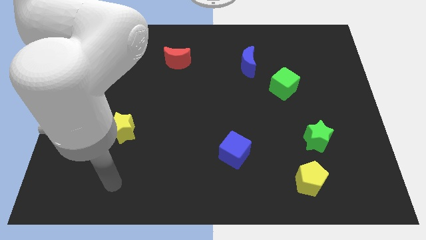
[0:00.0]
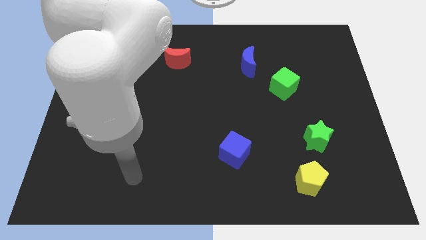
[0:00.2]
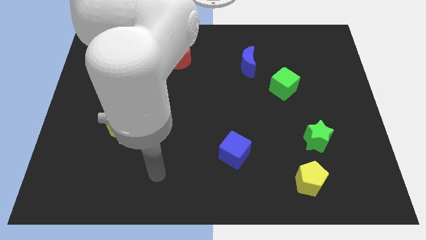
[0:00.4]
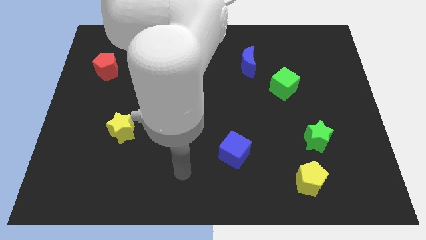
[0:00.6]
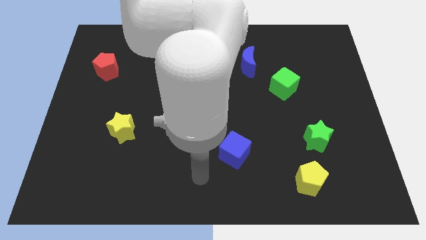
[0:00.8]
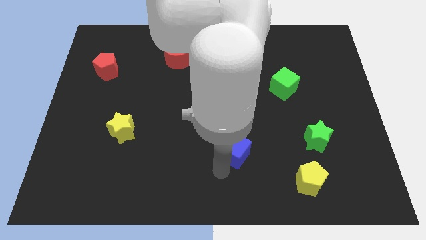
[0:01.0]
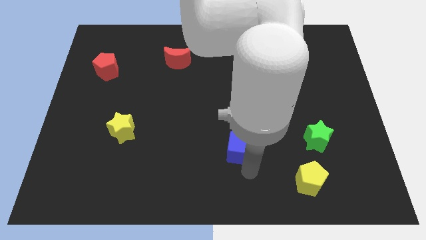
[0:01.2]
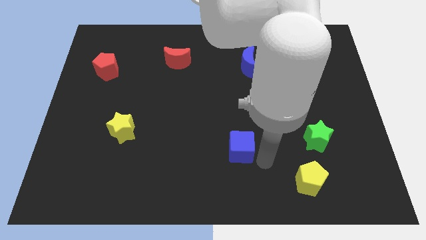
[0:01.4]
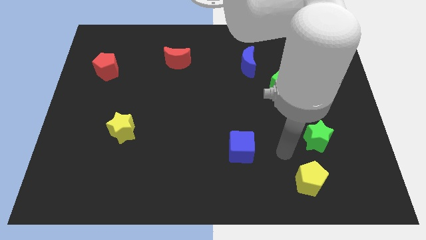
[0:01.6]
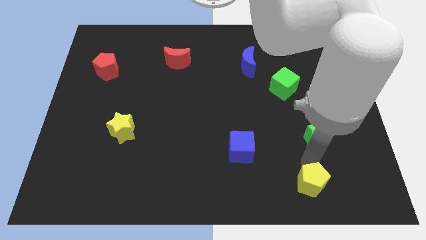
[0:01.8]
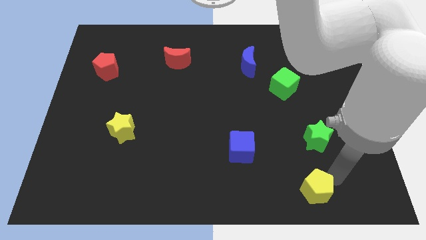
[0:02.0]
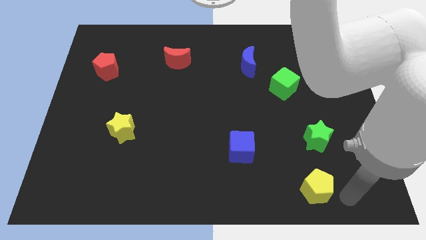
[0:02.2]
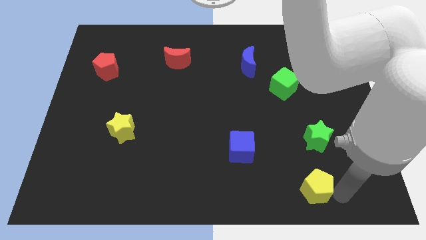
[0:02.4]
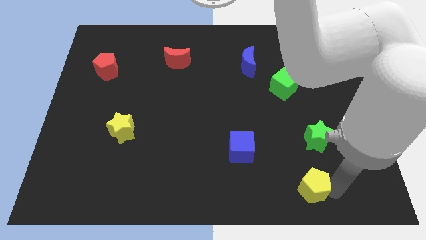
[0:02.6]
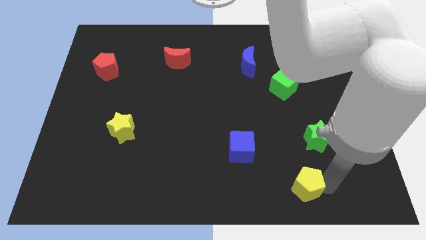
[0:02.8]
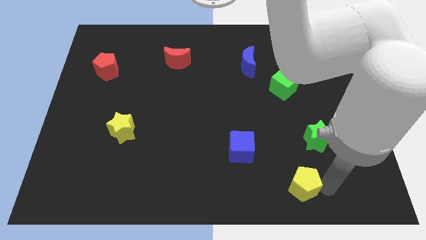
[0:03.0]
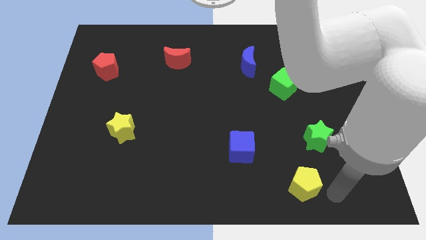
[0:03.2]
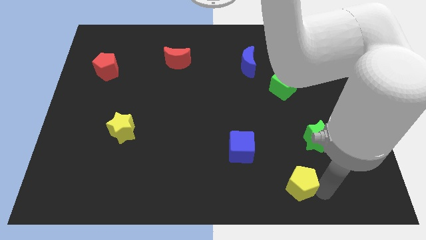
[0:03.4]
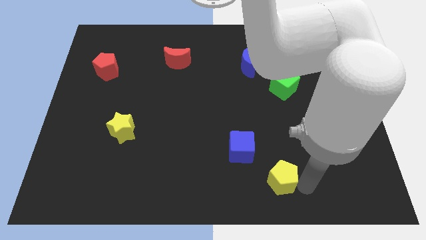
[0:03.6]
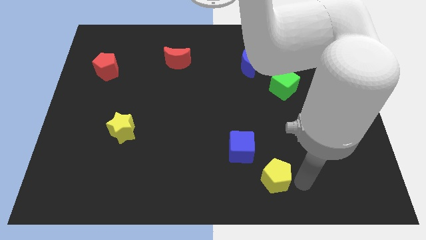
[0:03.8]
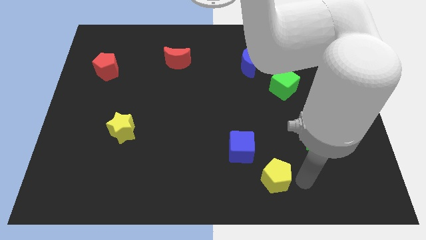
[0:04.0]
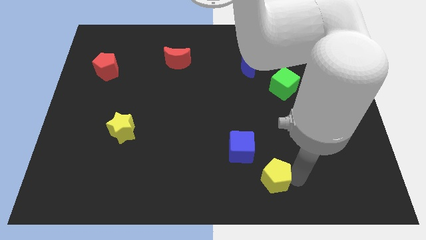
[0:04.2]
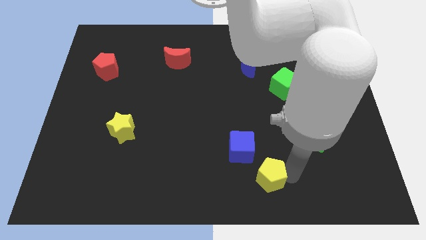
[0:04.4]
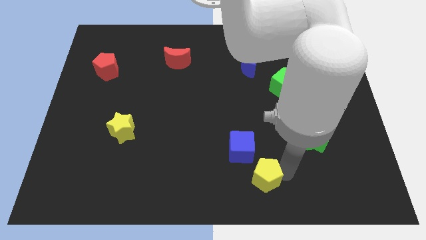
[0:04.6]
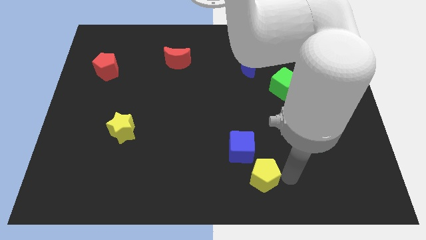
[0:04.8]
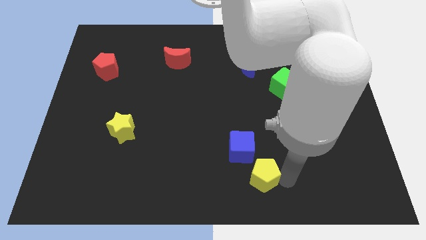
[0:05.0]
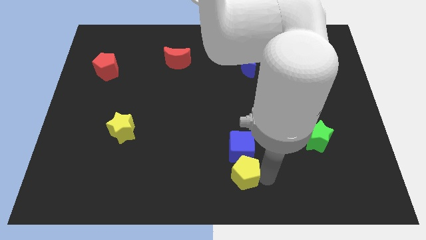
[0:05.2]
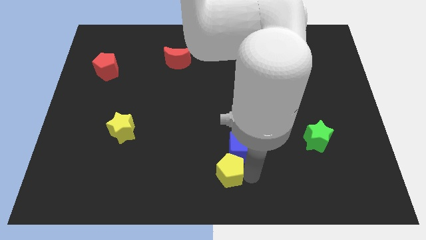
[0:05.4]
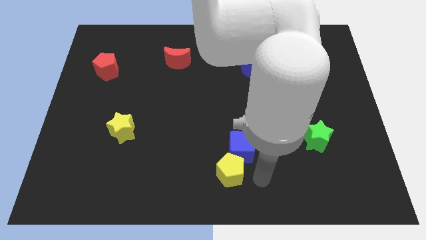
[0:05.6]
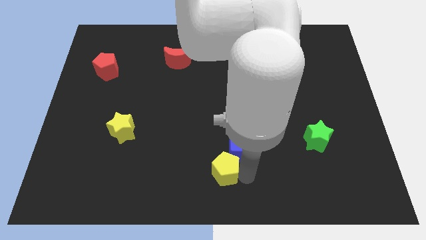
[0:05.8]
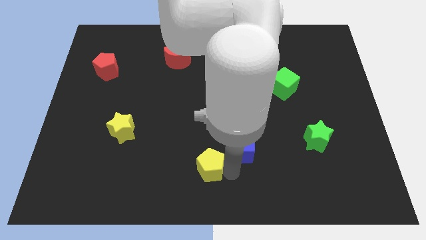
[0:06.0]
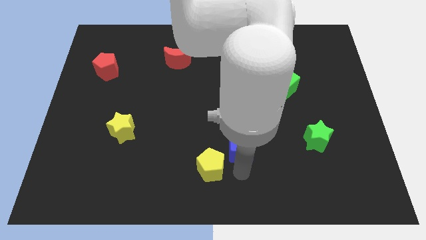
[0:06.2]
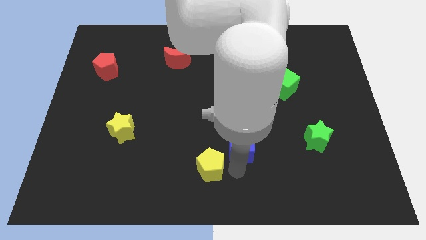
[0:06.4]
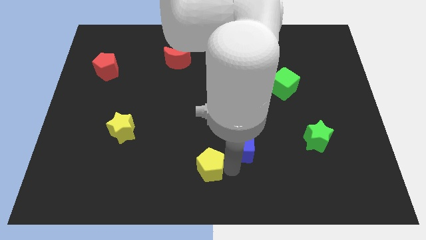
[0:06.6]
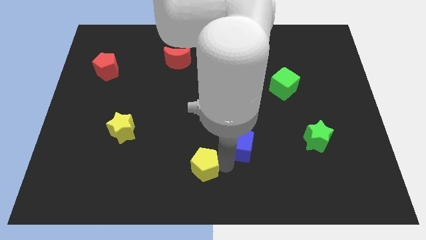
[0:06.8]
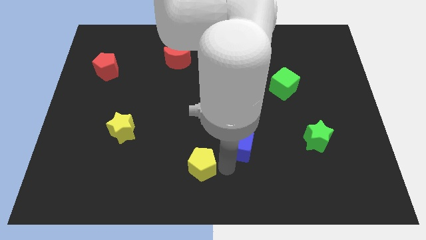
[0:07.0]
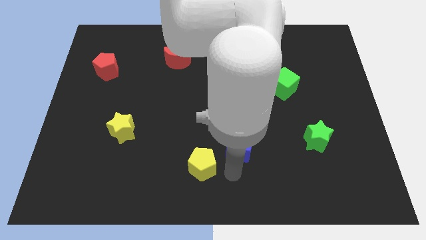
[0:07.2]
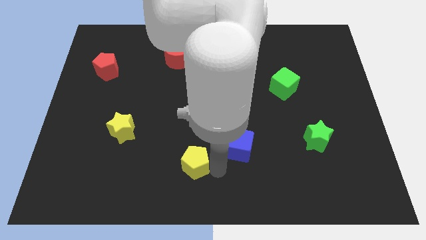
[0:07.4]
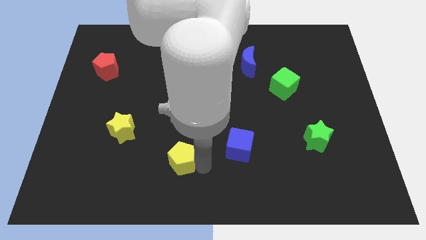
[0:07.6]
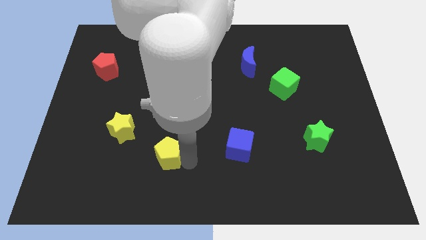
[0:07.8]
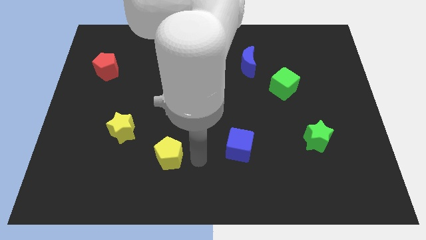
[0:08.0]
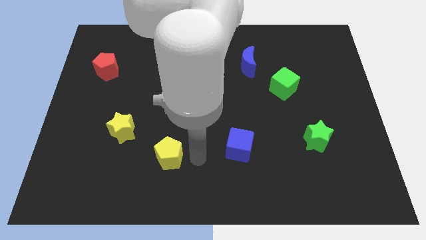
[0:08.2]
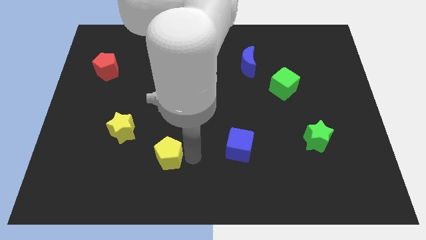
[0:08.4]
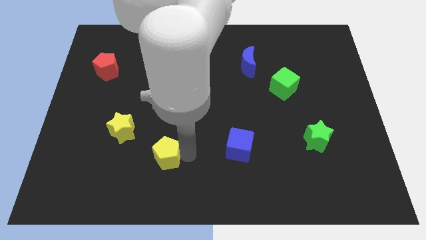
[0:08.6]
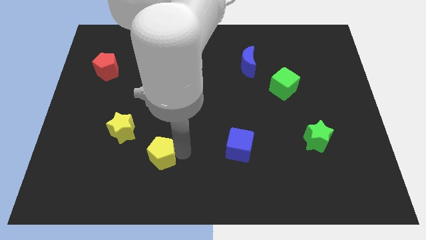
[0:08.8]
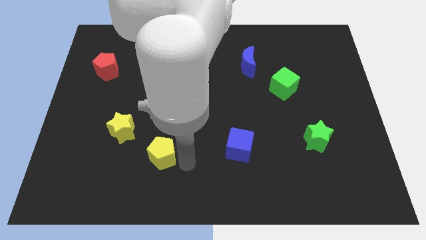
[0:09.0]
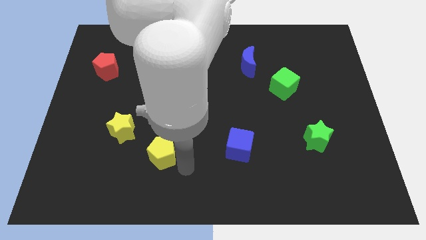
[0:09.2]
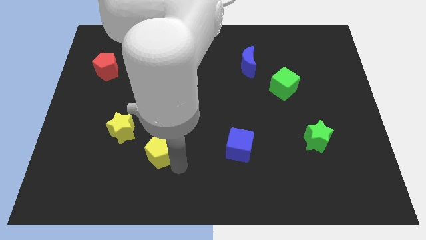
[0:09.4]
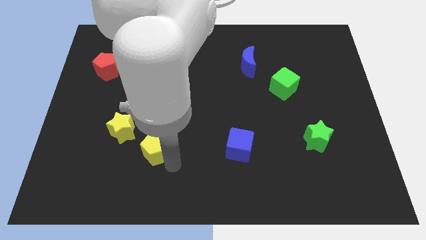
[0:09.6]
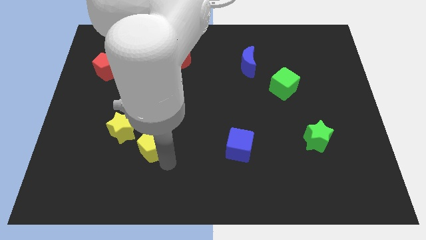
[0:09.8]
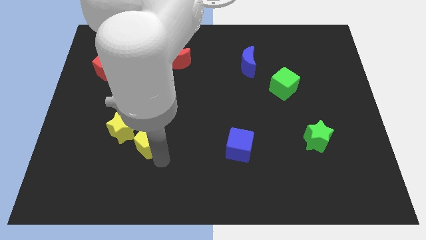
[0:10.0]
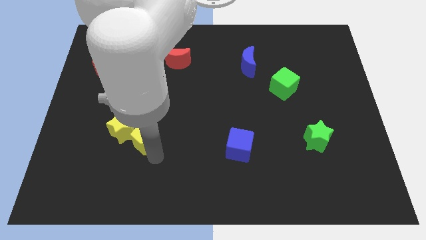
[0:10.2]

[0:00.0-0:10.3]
push the yellow pentagon next to the yellow star

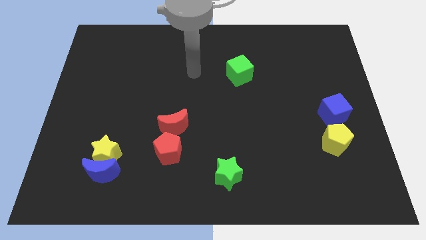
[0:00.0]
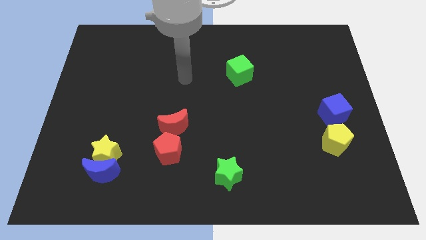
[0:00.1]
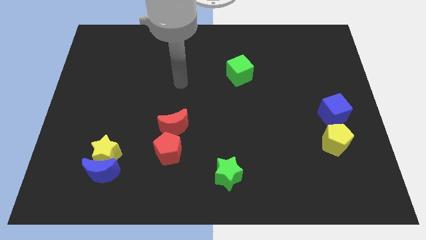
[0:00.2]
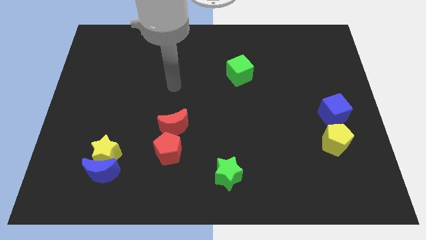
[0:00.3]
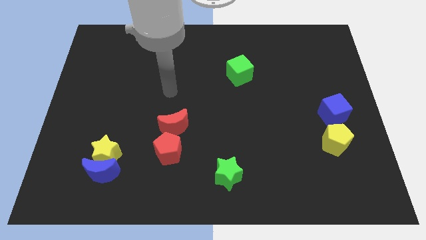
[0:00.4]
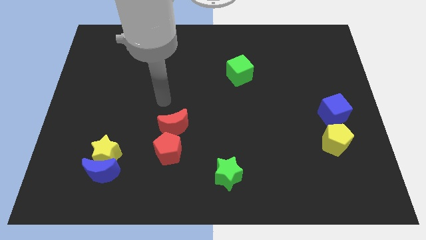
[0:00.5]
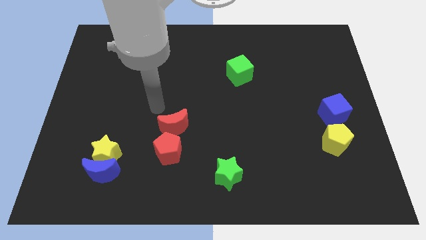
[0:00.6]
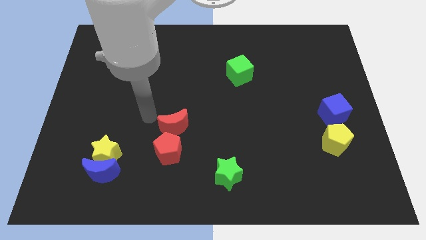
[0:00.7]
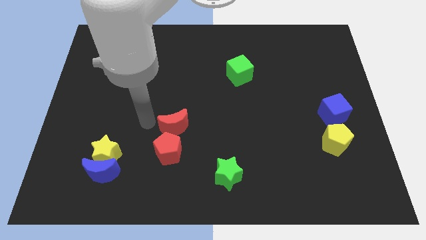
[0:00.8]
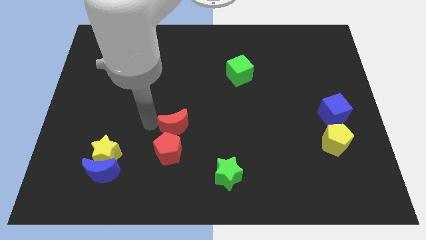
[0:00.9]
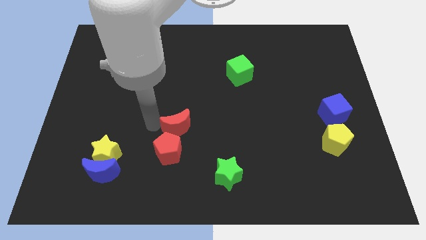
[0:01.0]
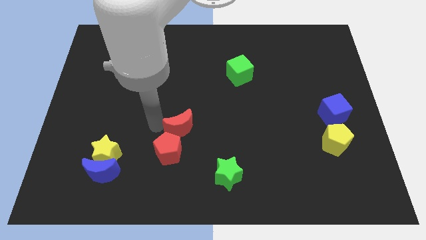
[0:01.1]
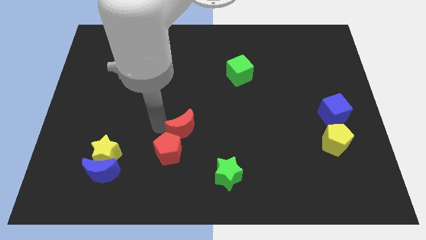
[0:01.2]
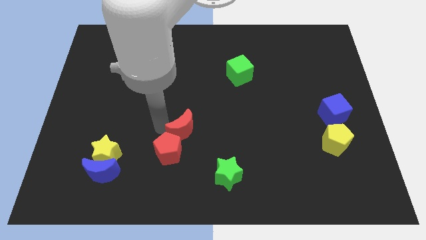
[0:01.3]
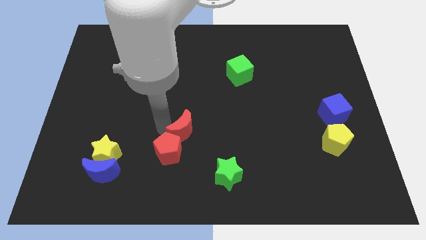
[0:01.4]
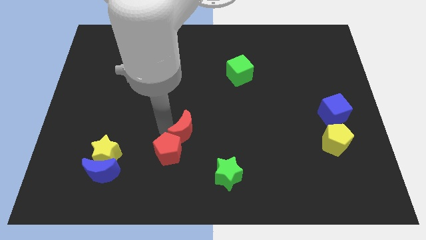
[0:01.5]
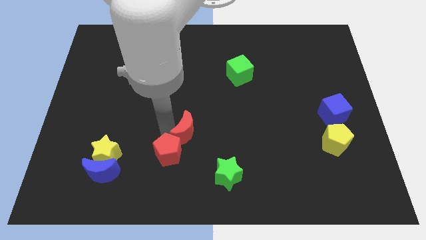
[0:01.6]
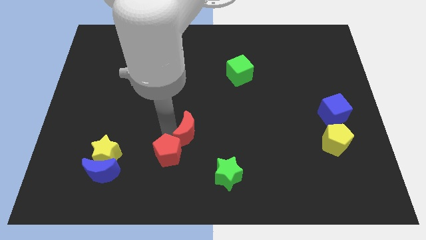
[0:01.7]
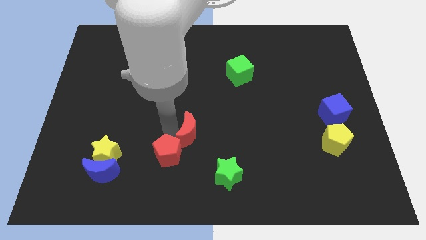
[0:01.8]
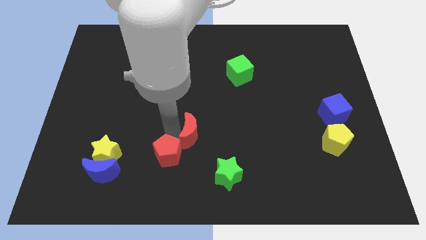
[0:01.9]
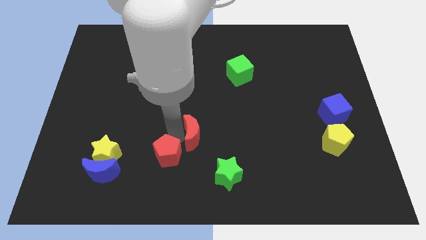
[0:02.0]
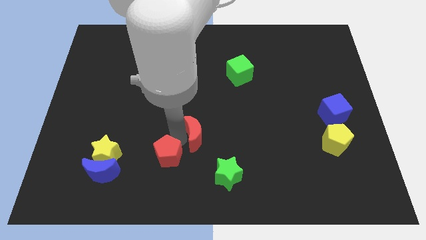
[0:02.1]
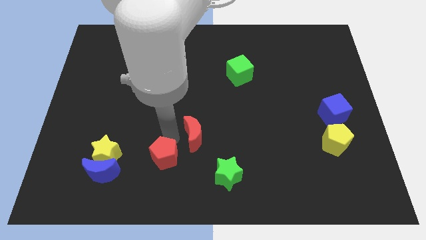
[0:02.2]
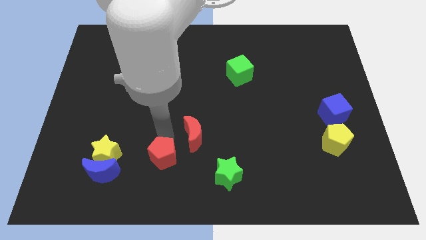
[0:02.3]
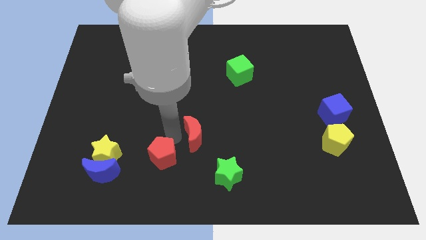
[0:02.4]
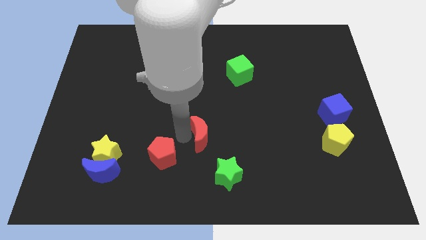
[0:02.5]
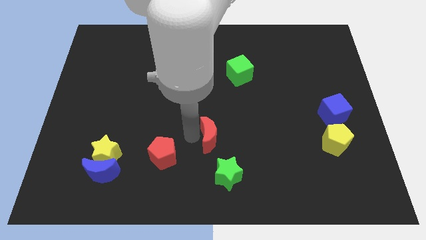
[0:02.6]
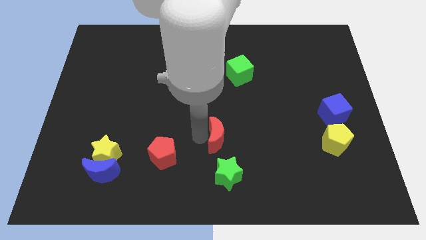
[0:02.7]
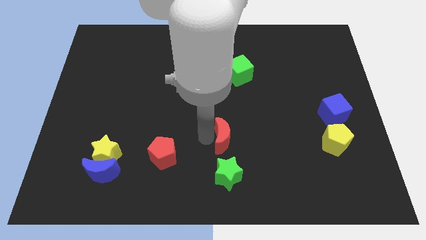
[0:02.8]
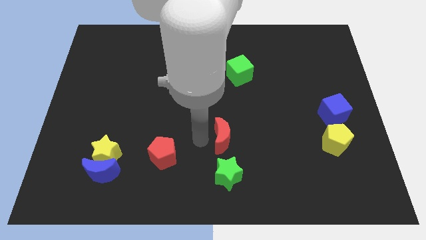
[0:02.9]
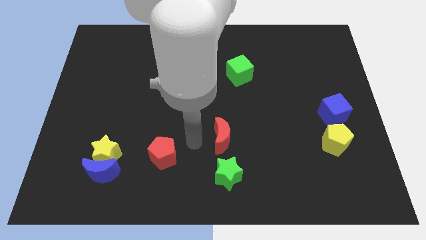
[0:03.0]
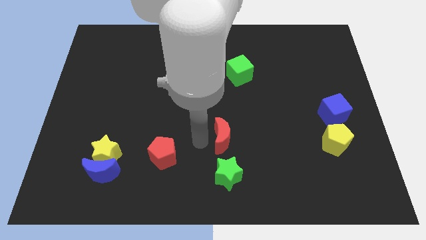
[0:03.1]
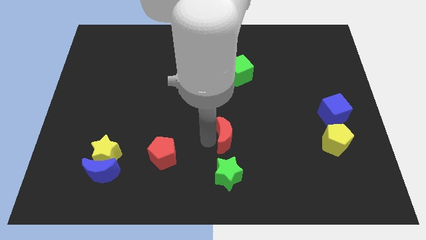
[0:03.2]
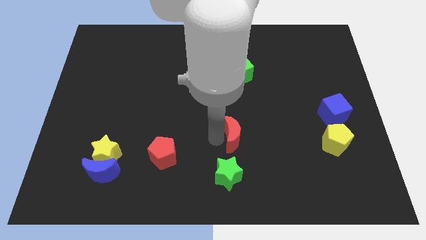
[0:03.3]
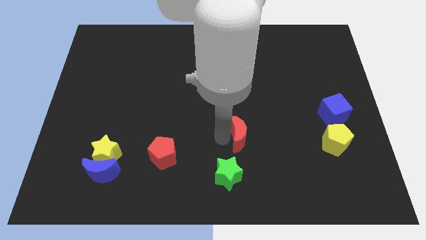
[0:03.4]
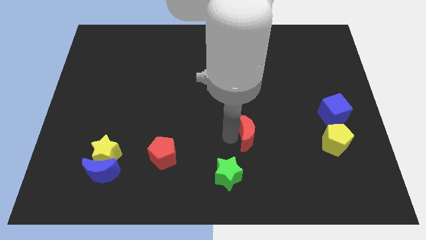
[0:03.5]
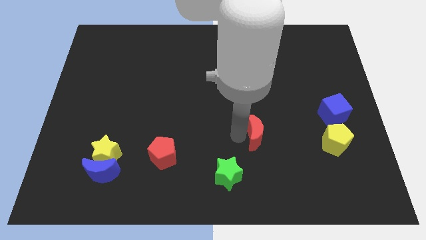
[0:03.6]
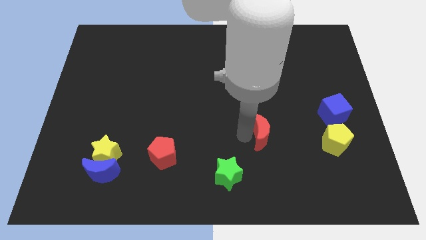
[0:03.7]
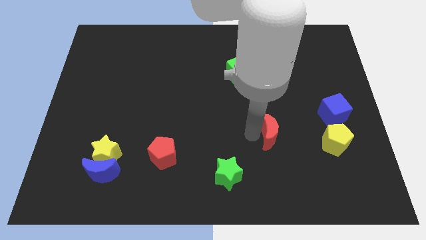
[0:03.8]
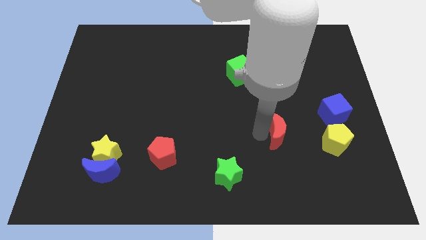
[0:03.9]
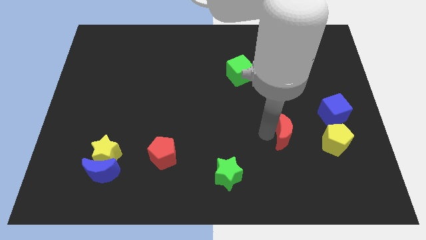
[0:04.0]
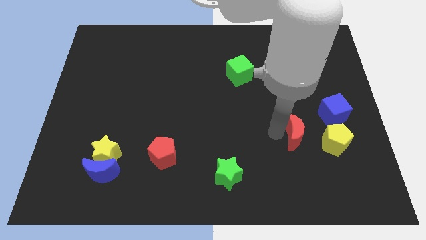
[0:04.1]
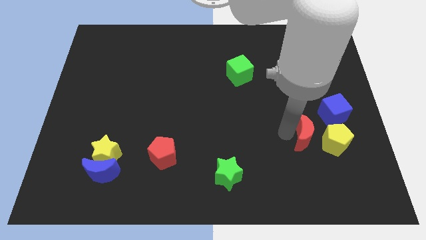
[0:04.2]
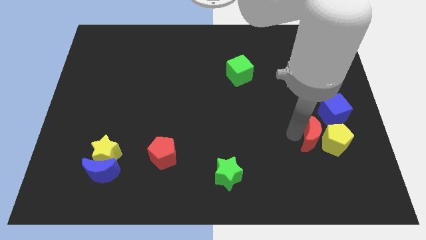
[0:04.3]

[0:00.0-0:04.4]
put the red moon to the yellow pentagon
